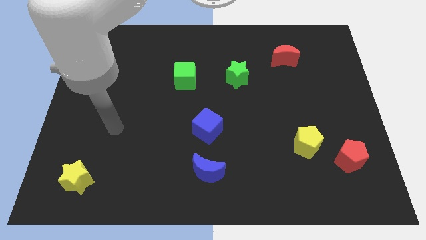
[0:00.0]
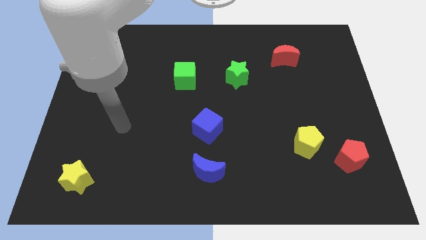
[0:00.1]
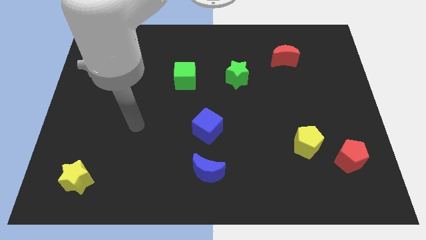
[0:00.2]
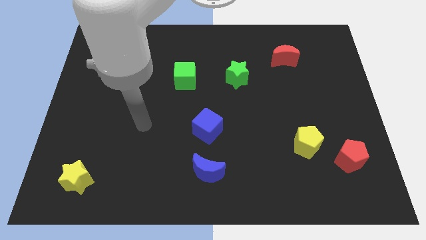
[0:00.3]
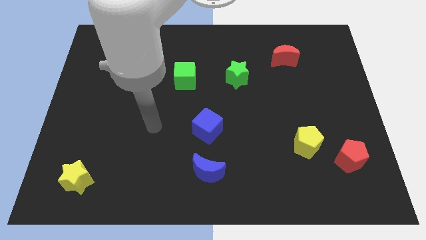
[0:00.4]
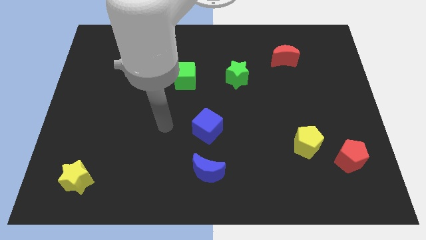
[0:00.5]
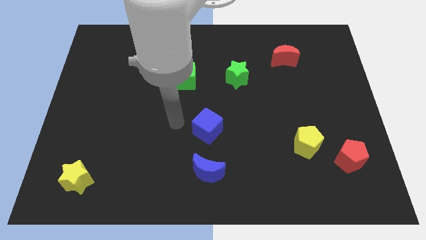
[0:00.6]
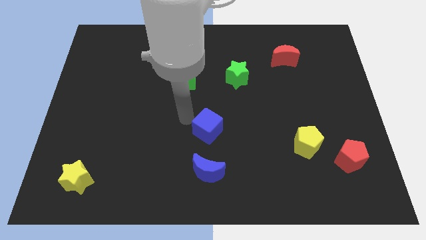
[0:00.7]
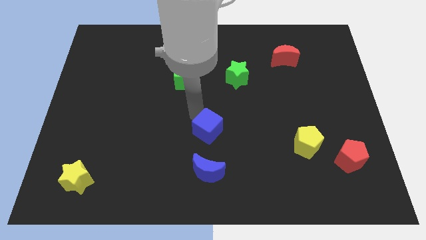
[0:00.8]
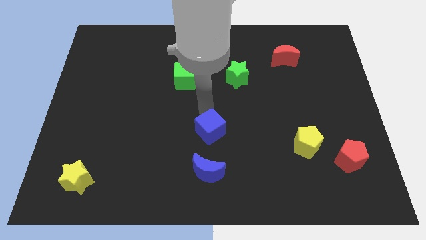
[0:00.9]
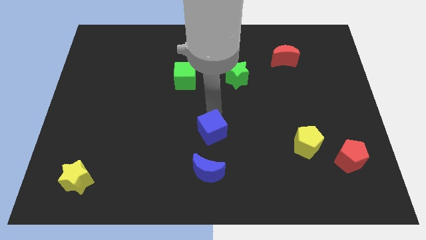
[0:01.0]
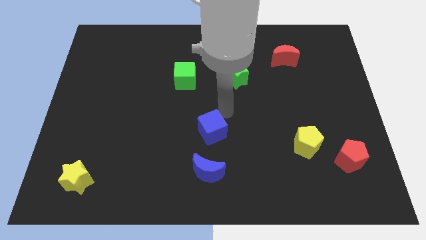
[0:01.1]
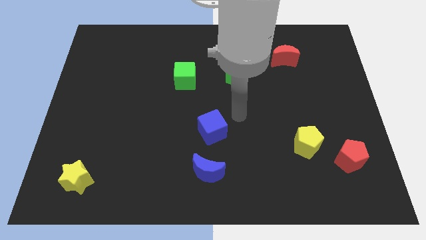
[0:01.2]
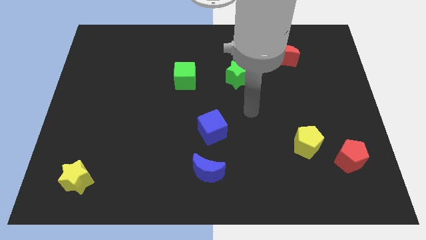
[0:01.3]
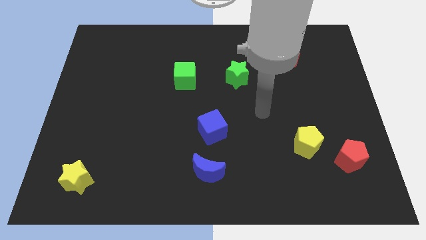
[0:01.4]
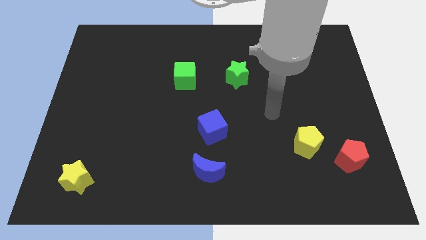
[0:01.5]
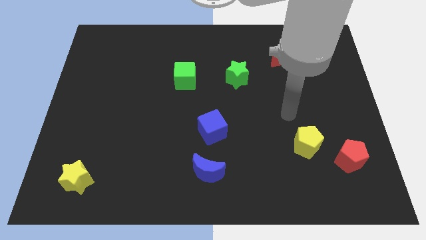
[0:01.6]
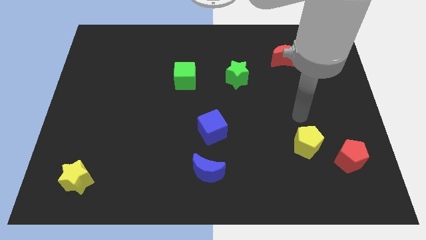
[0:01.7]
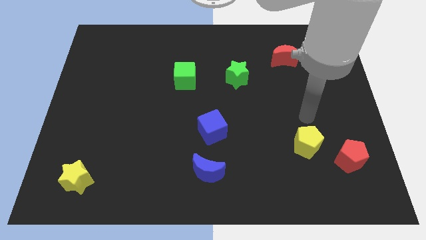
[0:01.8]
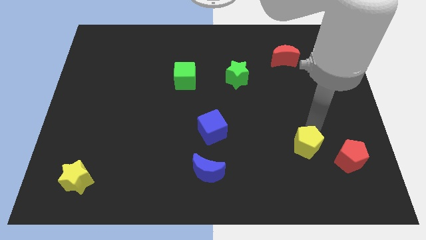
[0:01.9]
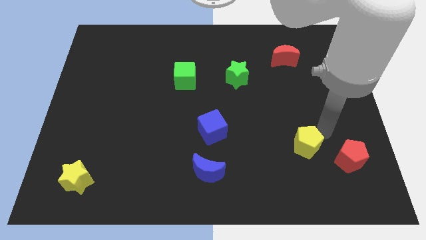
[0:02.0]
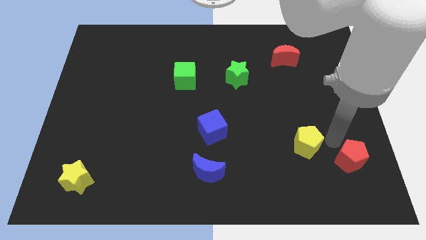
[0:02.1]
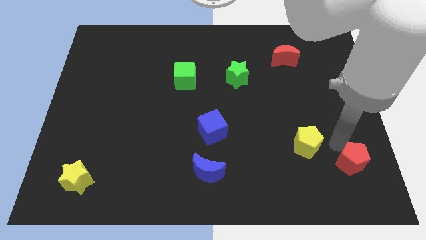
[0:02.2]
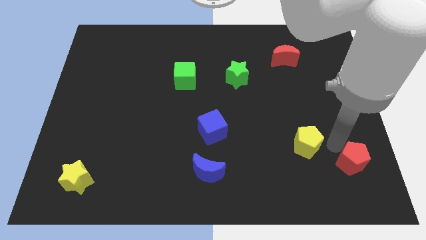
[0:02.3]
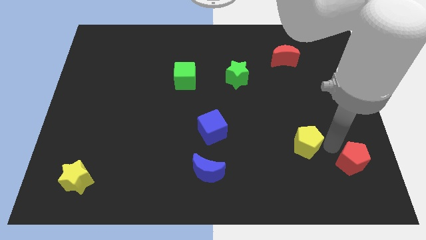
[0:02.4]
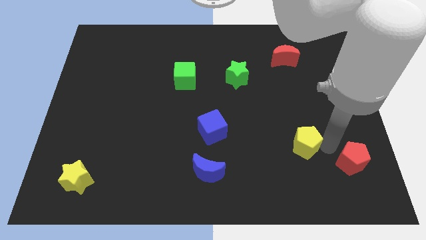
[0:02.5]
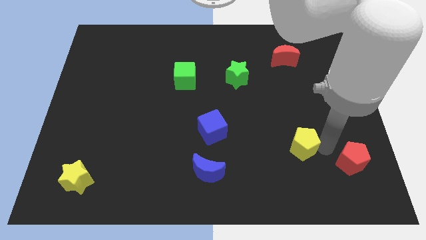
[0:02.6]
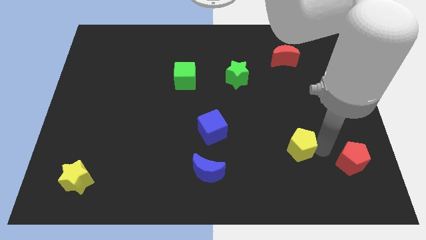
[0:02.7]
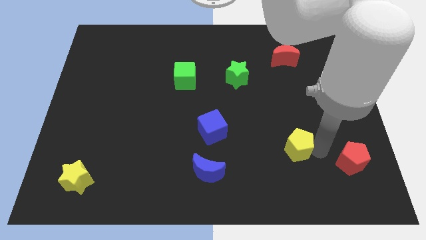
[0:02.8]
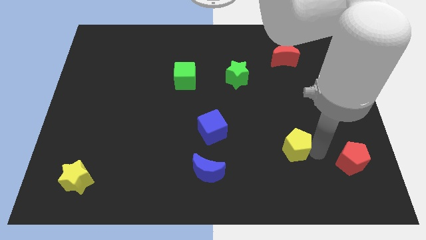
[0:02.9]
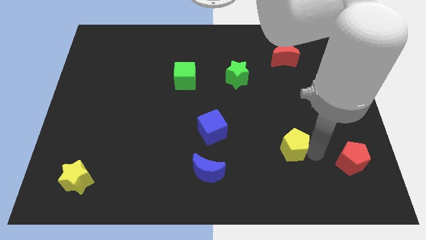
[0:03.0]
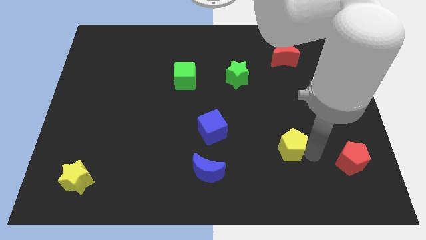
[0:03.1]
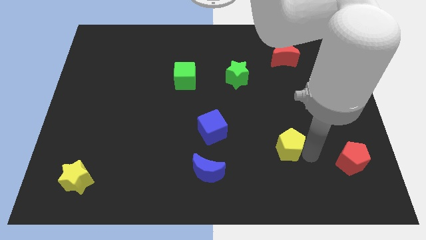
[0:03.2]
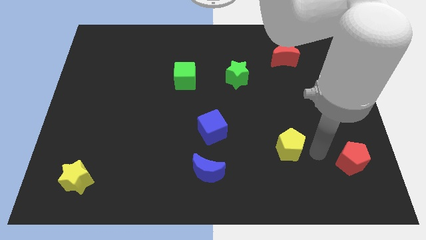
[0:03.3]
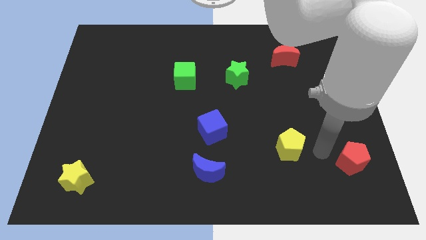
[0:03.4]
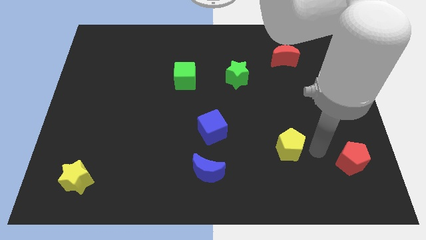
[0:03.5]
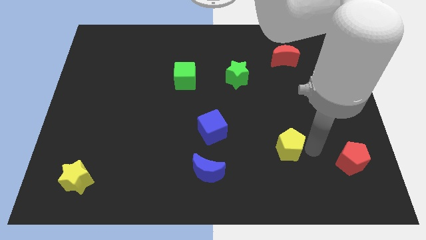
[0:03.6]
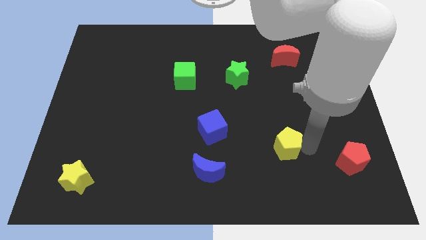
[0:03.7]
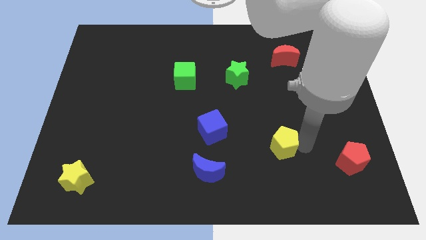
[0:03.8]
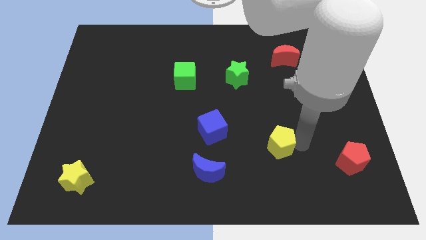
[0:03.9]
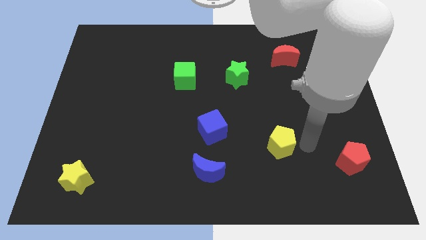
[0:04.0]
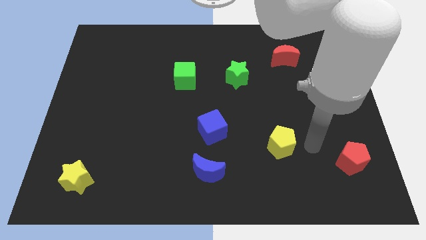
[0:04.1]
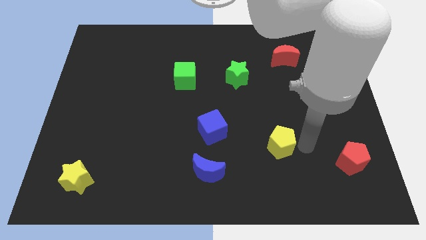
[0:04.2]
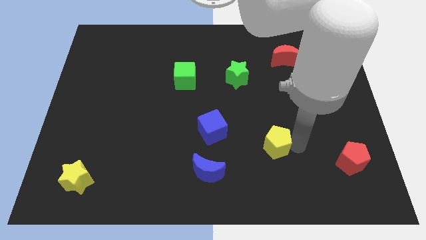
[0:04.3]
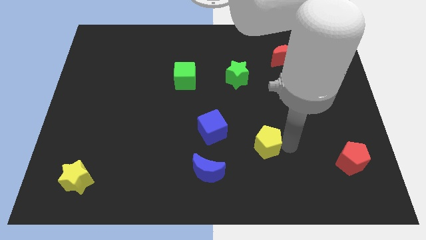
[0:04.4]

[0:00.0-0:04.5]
slightly push the yellow pentagon to the left

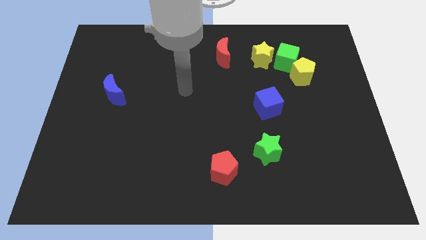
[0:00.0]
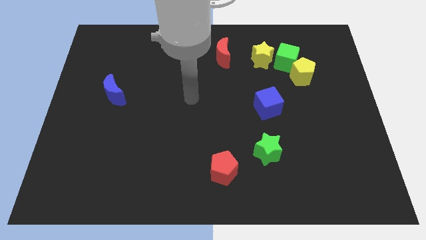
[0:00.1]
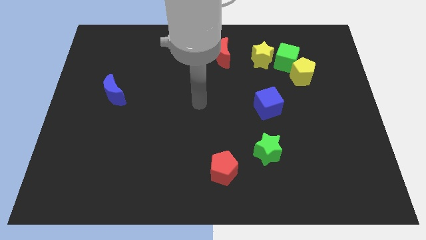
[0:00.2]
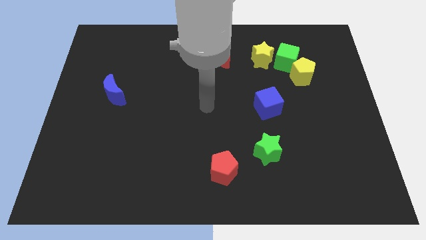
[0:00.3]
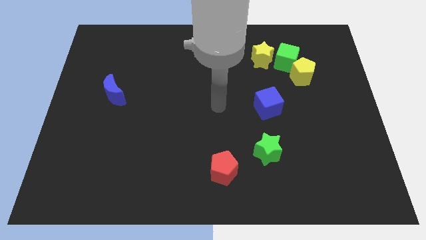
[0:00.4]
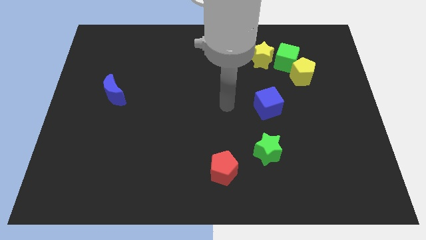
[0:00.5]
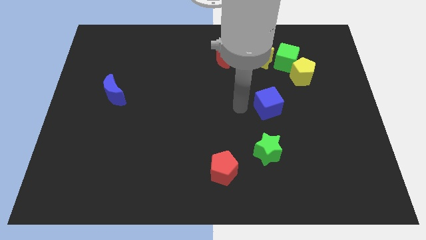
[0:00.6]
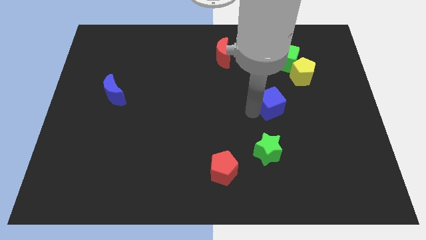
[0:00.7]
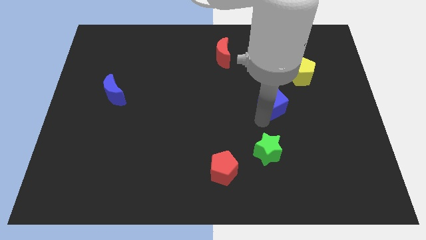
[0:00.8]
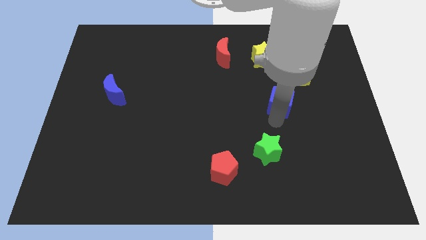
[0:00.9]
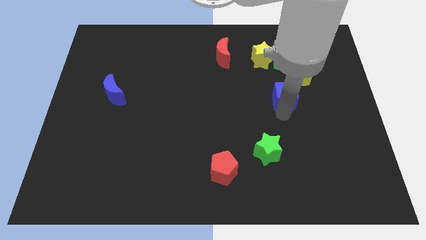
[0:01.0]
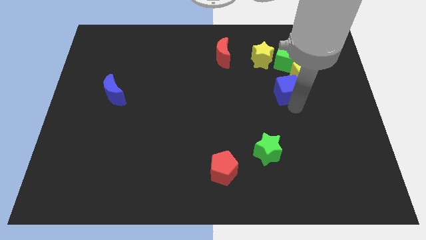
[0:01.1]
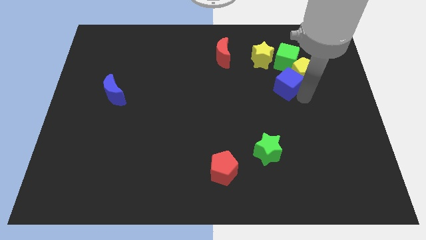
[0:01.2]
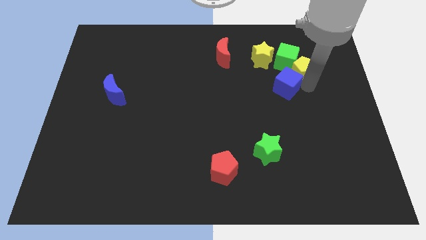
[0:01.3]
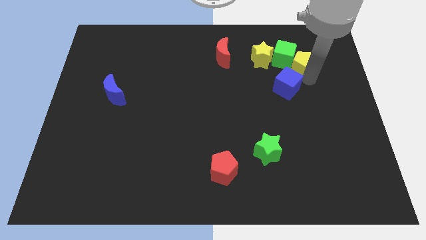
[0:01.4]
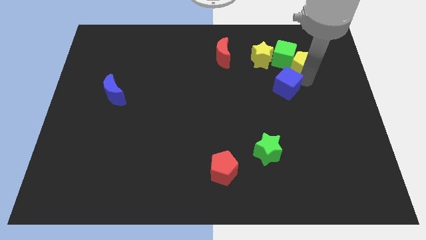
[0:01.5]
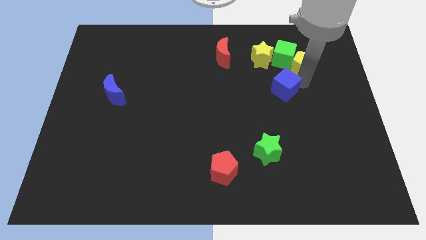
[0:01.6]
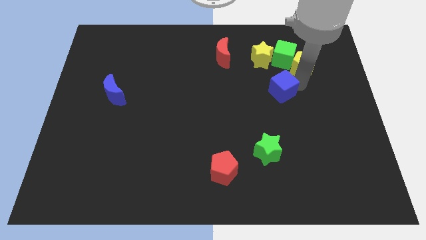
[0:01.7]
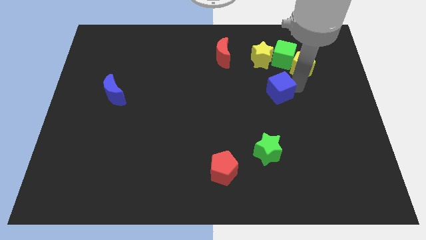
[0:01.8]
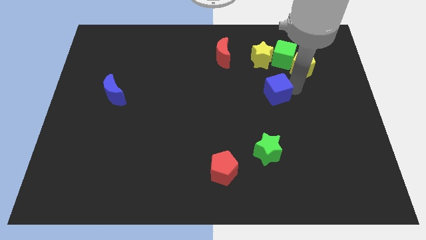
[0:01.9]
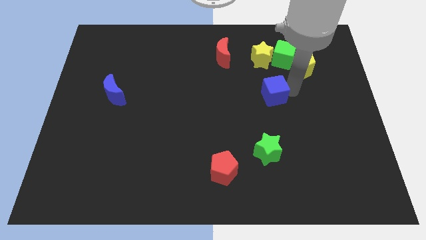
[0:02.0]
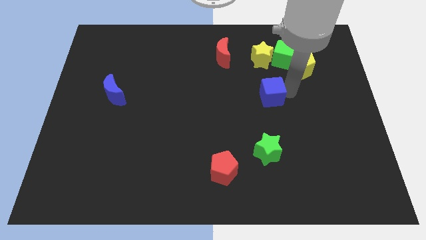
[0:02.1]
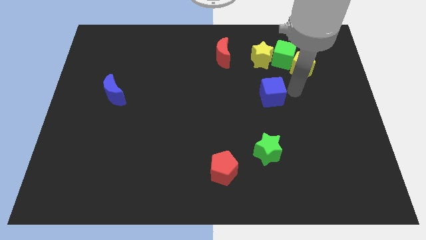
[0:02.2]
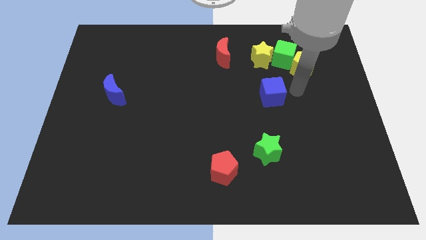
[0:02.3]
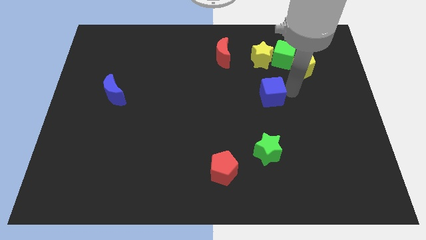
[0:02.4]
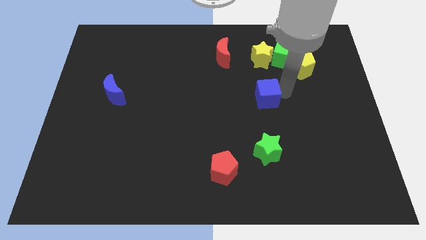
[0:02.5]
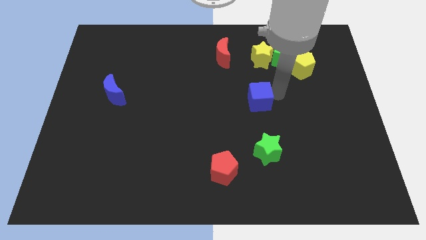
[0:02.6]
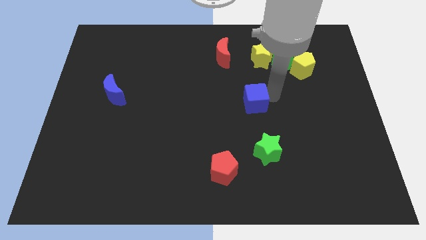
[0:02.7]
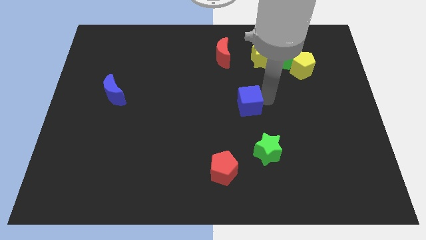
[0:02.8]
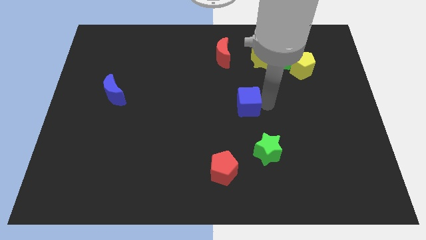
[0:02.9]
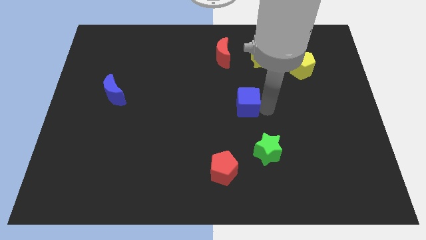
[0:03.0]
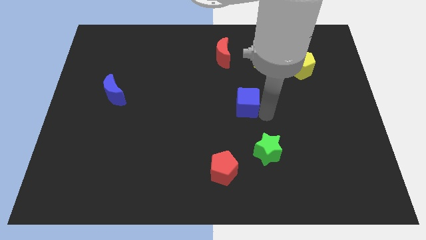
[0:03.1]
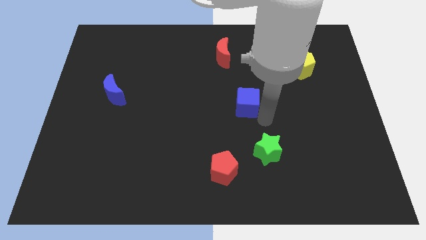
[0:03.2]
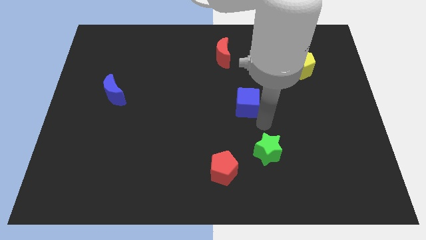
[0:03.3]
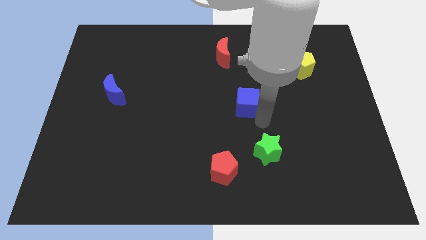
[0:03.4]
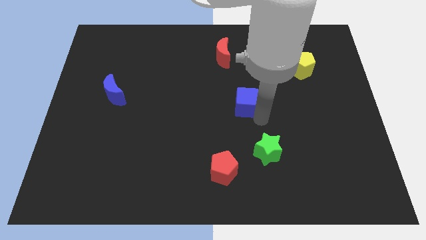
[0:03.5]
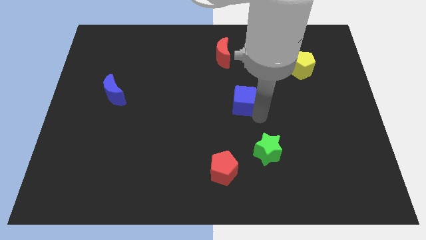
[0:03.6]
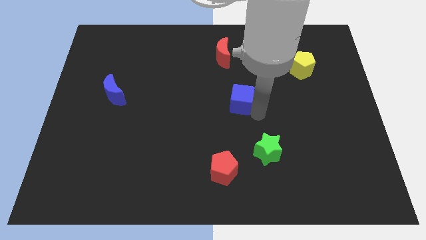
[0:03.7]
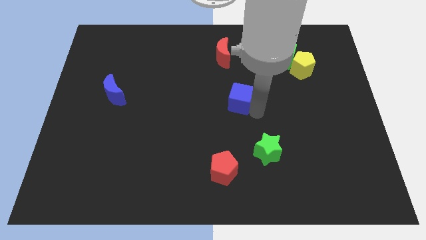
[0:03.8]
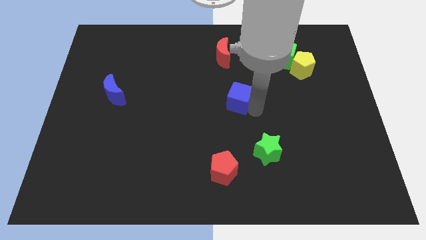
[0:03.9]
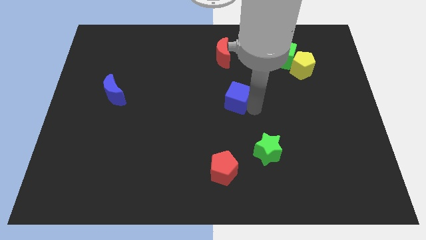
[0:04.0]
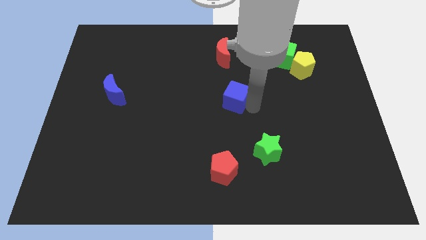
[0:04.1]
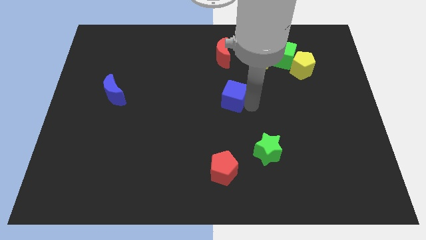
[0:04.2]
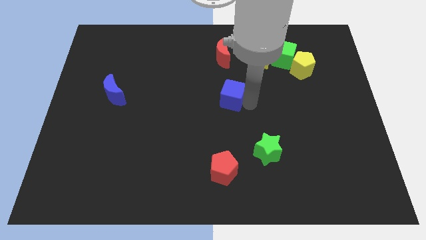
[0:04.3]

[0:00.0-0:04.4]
slightly move the blue cube upwards and left diagonally
